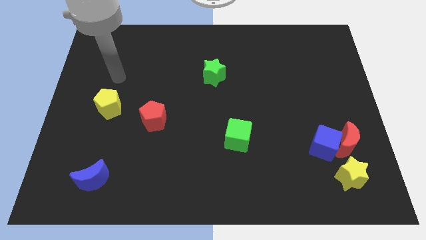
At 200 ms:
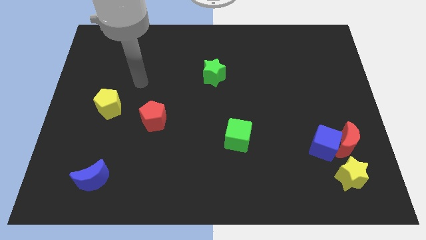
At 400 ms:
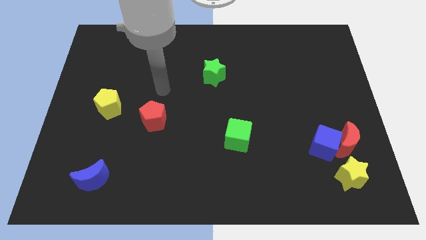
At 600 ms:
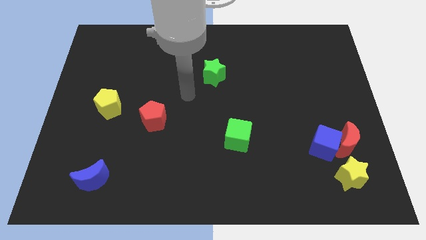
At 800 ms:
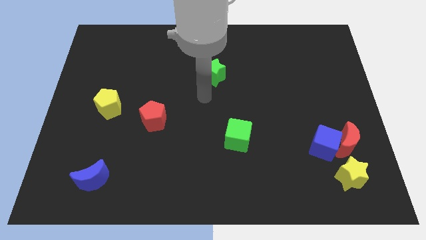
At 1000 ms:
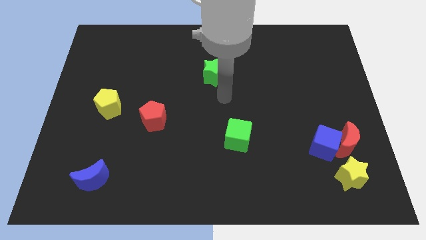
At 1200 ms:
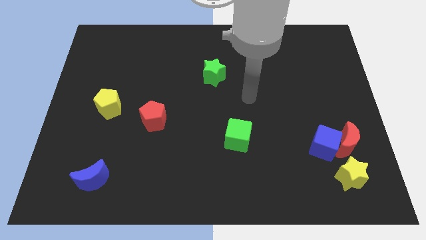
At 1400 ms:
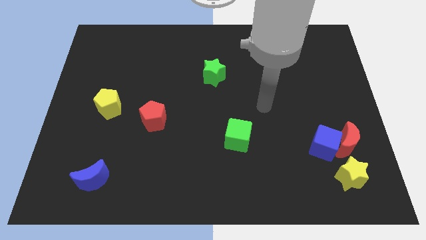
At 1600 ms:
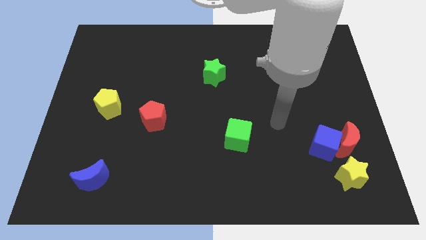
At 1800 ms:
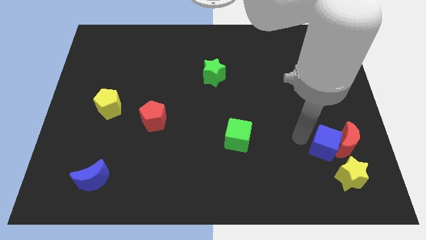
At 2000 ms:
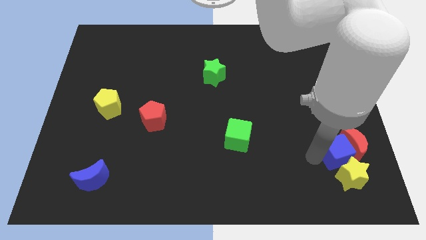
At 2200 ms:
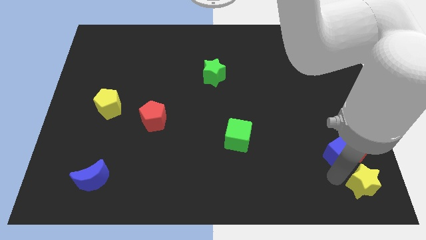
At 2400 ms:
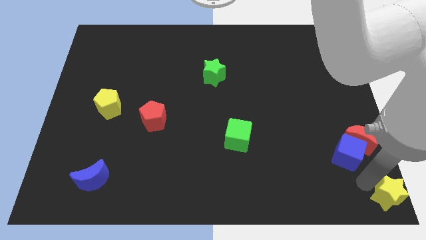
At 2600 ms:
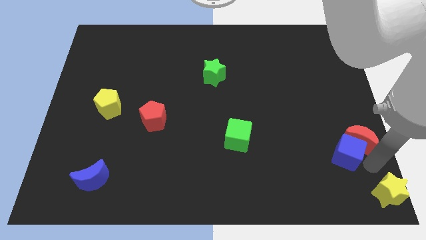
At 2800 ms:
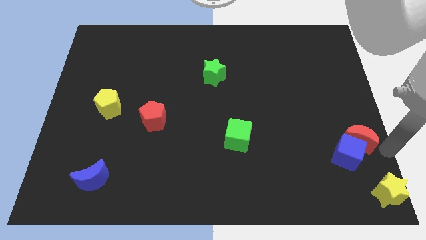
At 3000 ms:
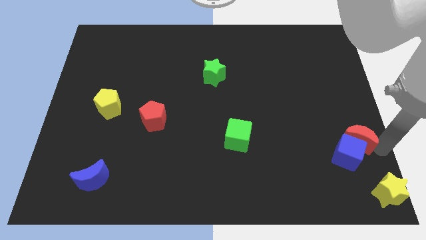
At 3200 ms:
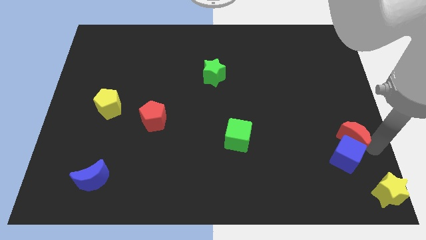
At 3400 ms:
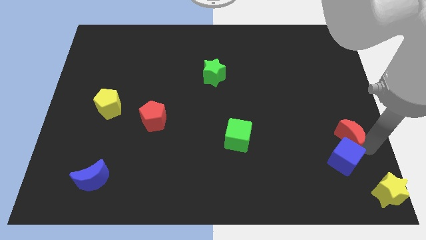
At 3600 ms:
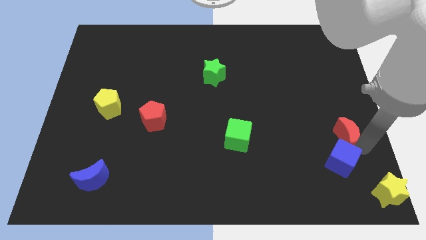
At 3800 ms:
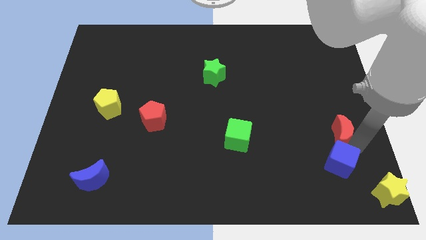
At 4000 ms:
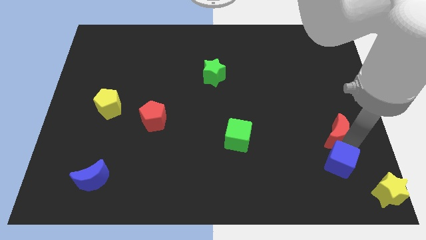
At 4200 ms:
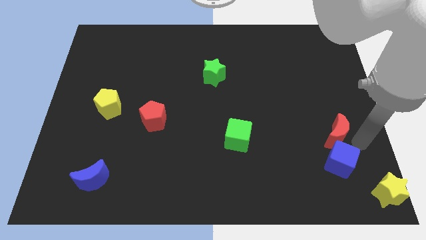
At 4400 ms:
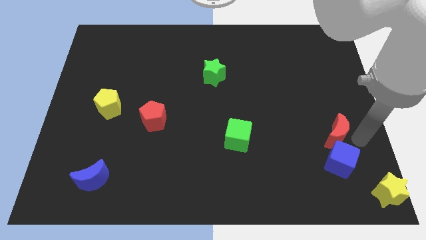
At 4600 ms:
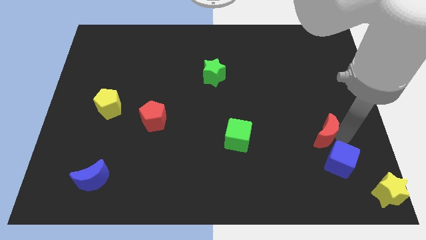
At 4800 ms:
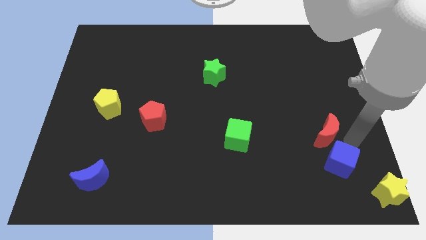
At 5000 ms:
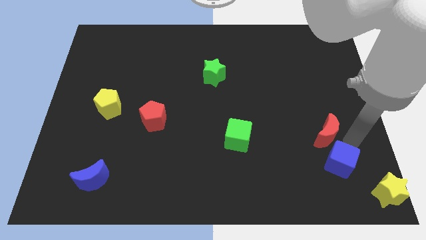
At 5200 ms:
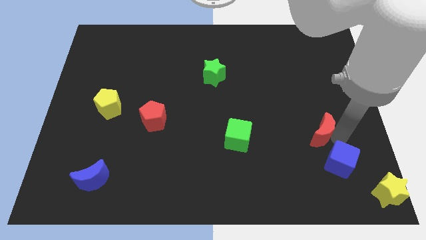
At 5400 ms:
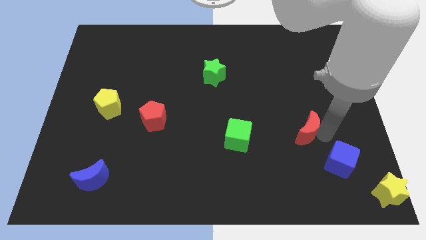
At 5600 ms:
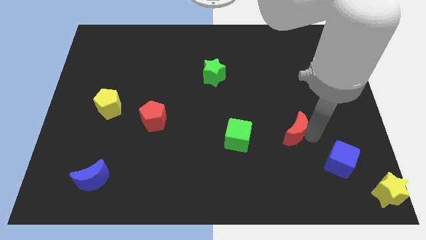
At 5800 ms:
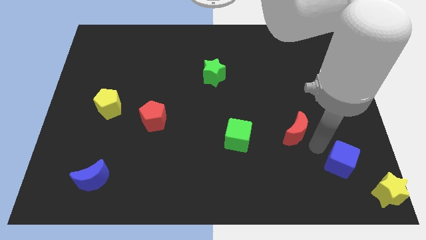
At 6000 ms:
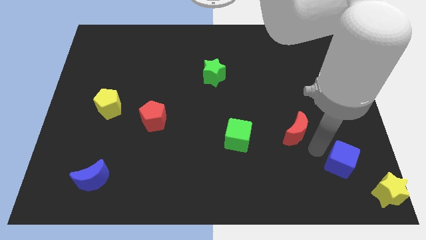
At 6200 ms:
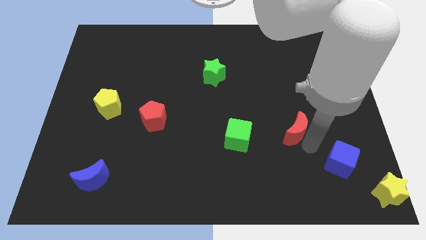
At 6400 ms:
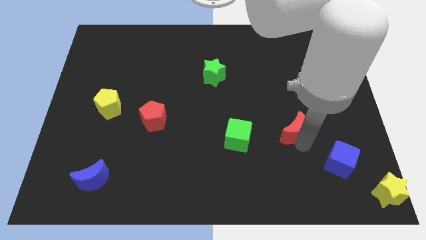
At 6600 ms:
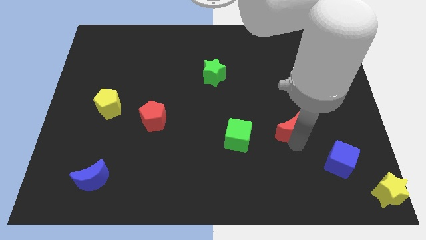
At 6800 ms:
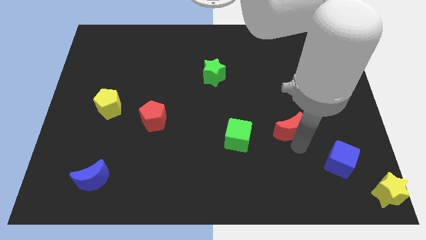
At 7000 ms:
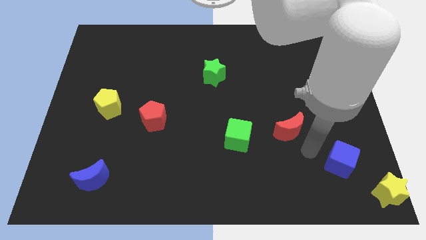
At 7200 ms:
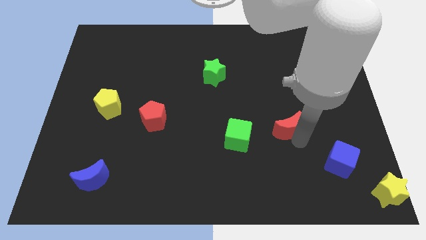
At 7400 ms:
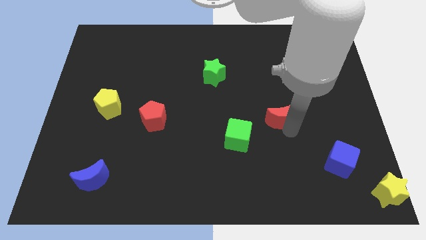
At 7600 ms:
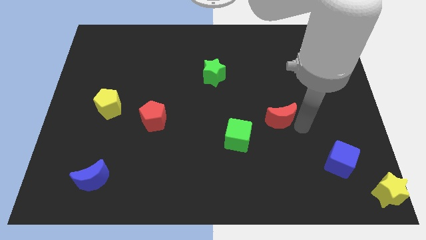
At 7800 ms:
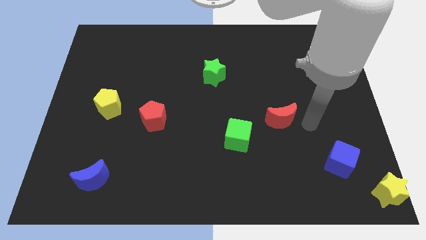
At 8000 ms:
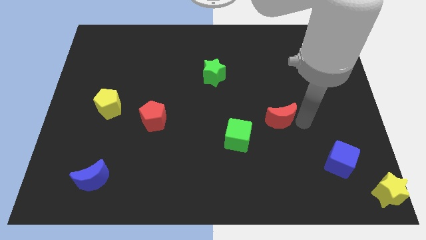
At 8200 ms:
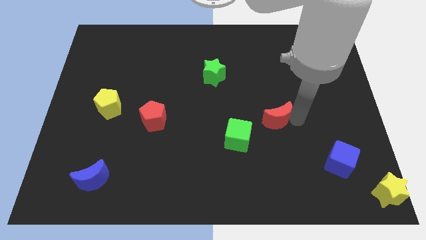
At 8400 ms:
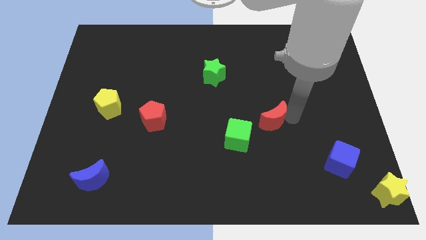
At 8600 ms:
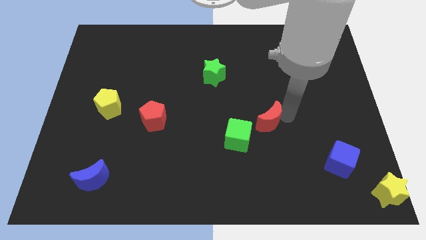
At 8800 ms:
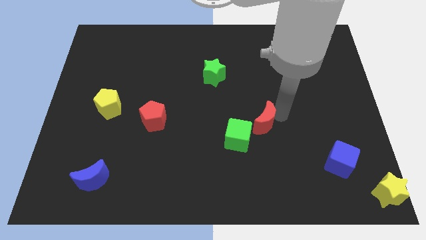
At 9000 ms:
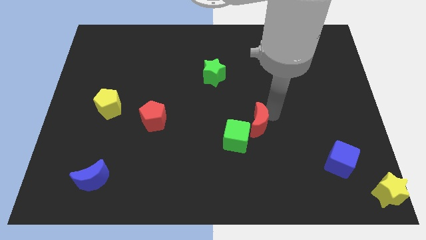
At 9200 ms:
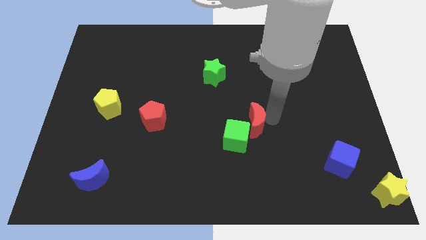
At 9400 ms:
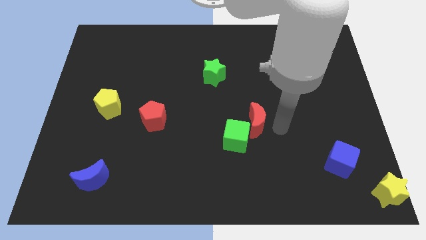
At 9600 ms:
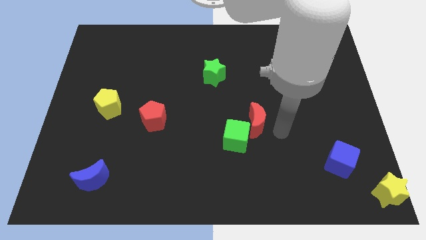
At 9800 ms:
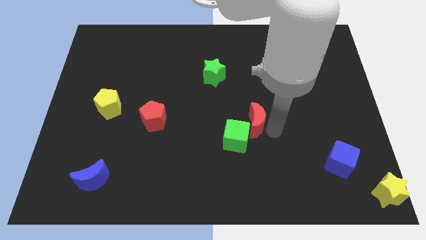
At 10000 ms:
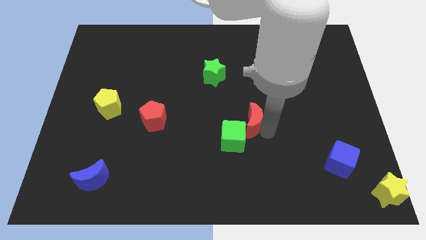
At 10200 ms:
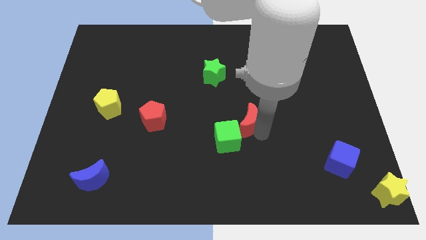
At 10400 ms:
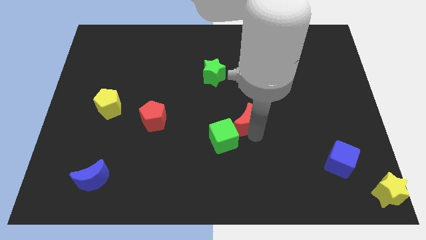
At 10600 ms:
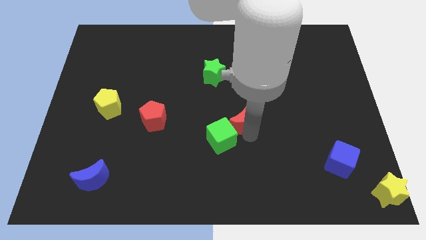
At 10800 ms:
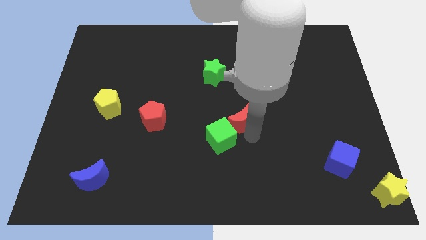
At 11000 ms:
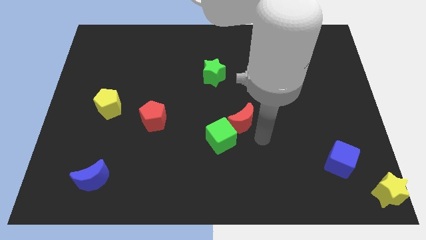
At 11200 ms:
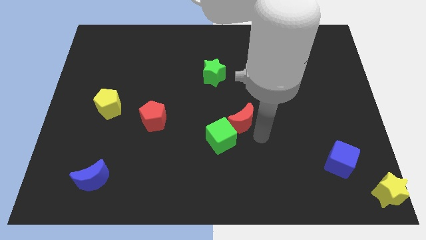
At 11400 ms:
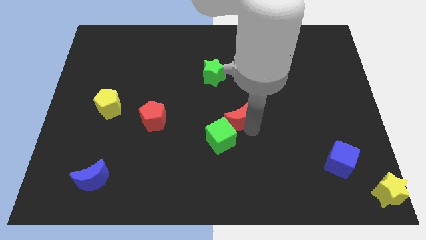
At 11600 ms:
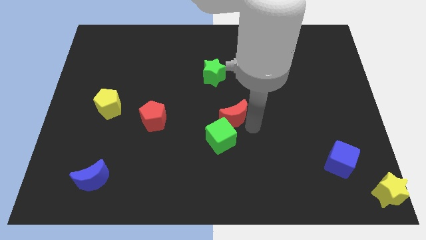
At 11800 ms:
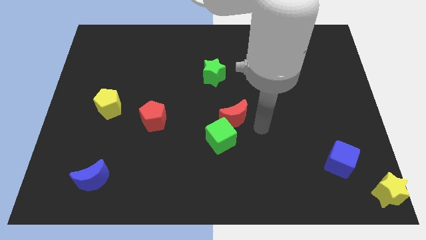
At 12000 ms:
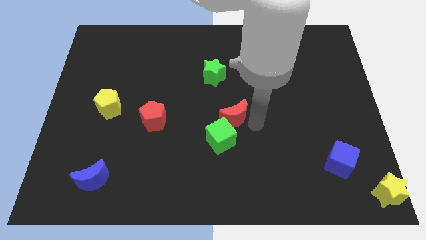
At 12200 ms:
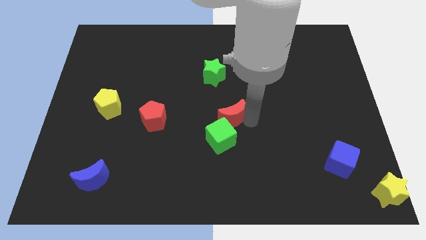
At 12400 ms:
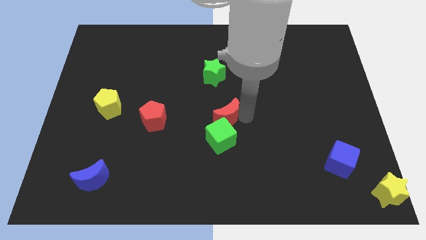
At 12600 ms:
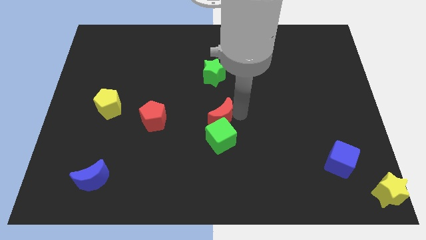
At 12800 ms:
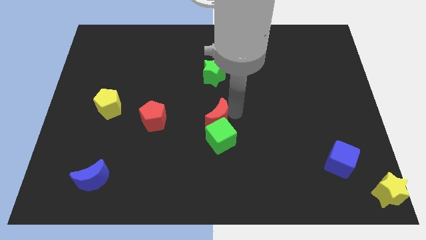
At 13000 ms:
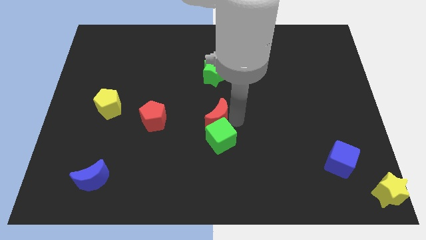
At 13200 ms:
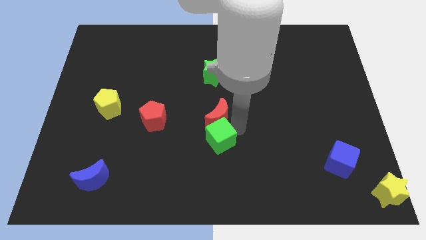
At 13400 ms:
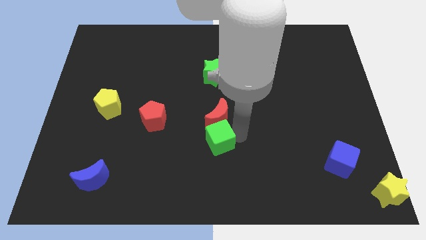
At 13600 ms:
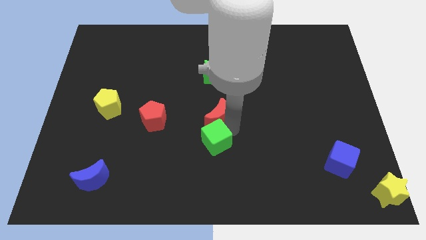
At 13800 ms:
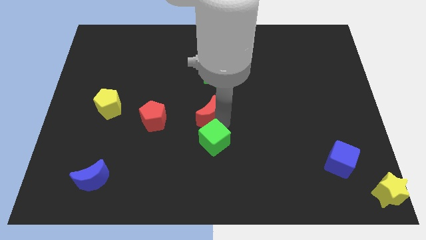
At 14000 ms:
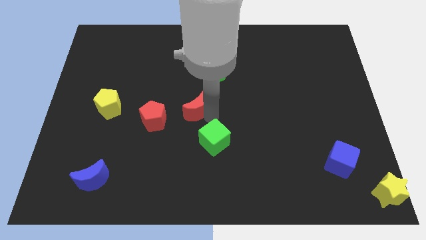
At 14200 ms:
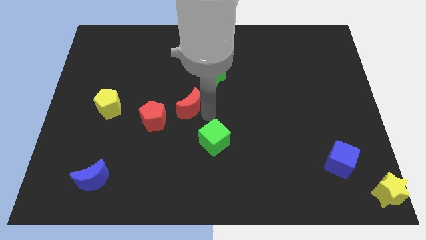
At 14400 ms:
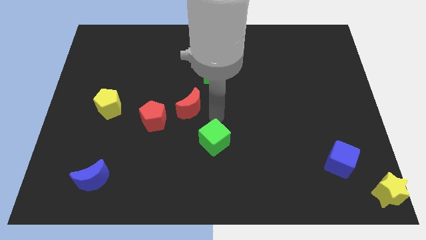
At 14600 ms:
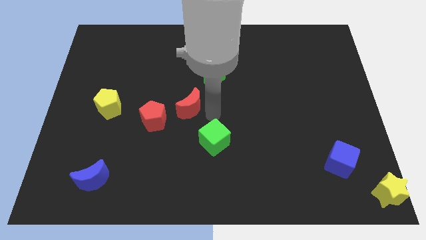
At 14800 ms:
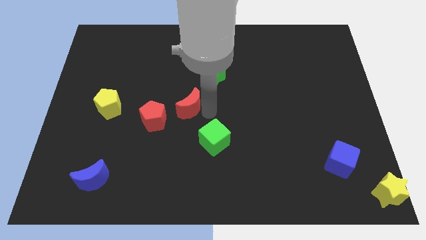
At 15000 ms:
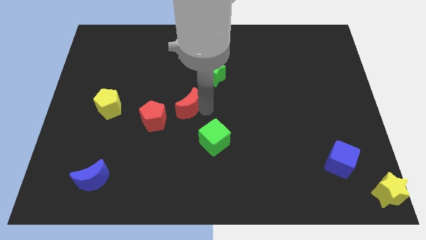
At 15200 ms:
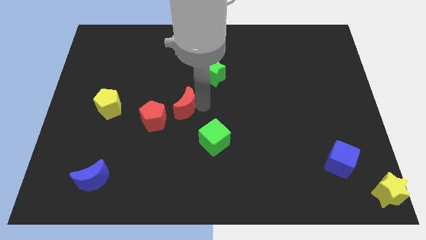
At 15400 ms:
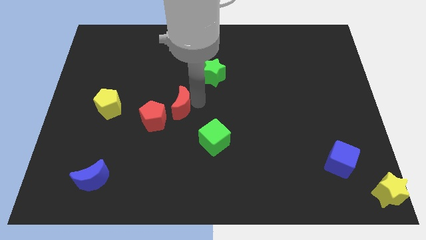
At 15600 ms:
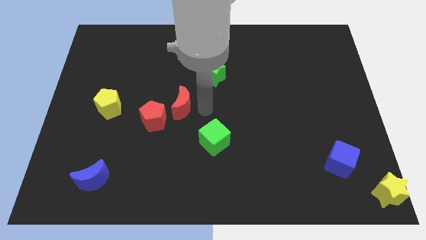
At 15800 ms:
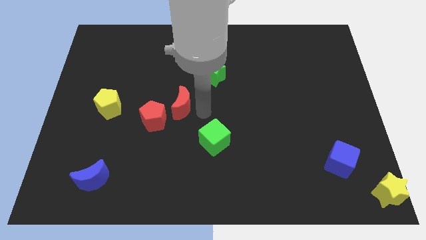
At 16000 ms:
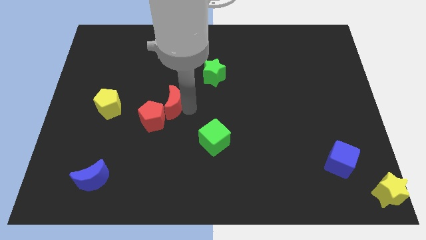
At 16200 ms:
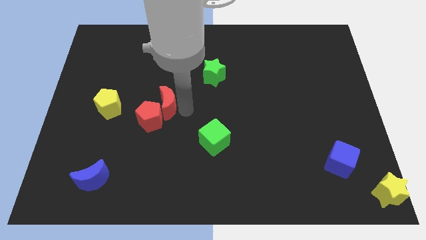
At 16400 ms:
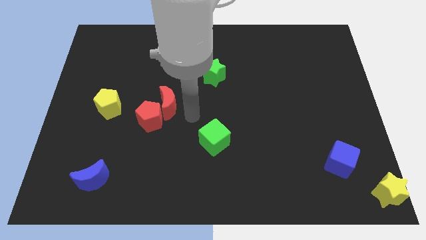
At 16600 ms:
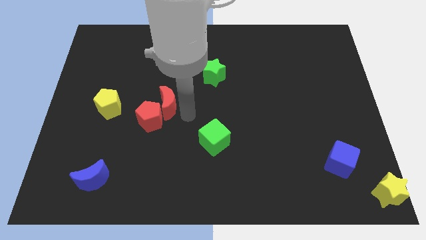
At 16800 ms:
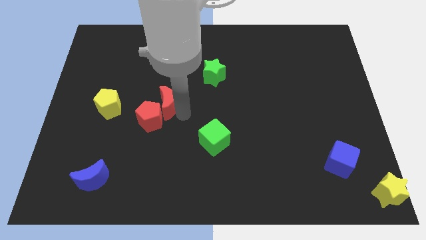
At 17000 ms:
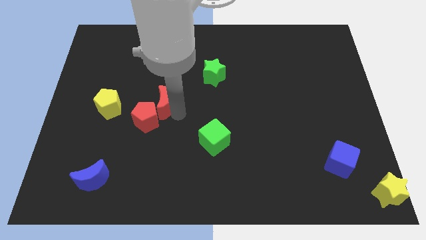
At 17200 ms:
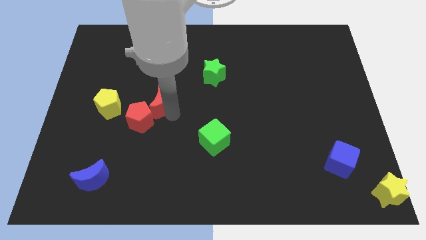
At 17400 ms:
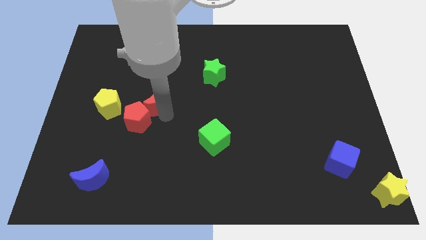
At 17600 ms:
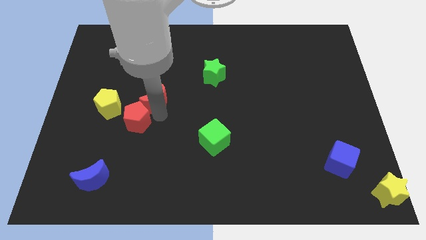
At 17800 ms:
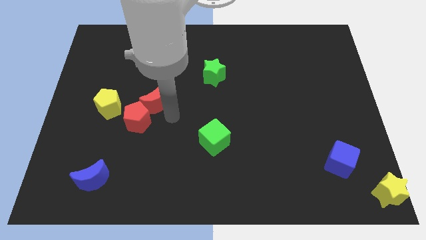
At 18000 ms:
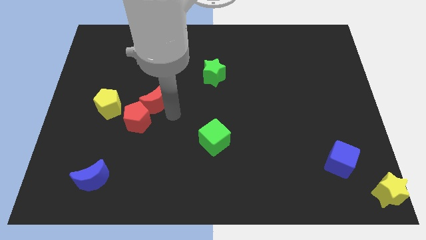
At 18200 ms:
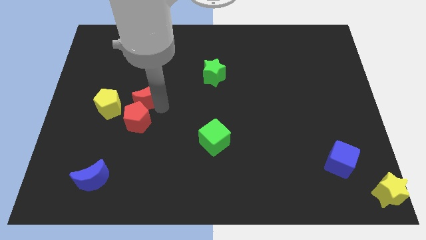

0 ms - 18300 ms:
slide the red moon to the top right side of the yellow pentagon
